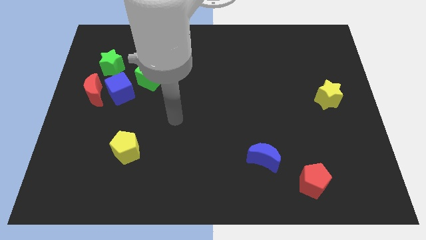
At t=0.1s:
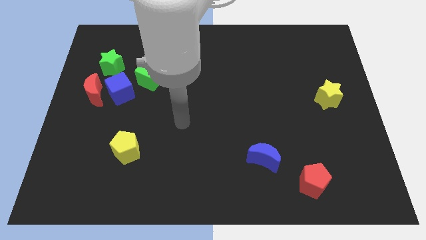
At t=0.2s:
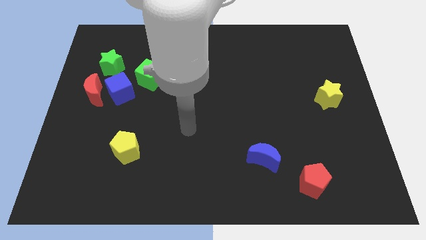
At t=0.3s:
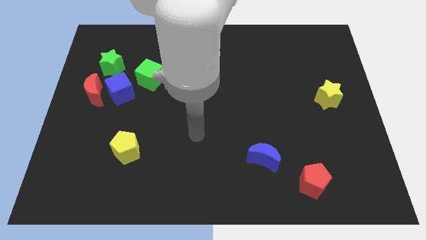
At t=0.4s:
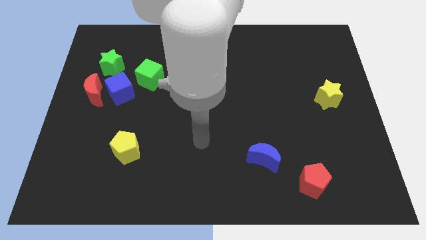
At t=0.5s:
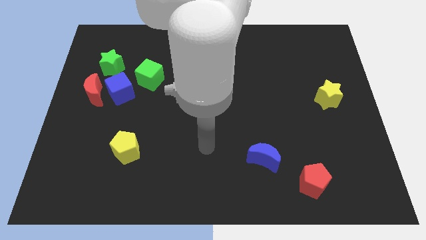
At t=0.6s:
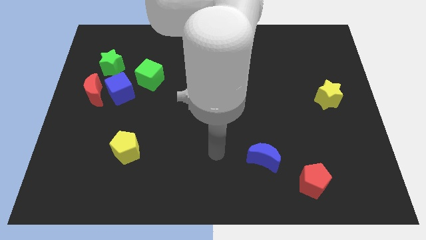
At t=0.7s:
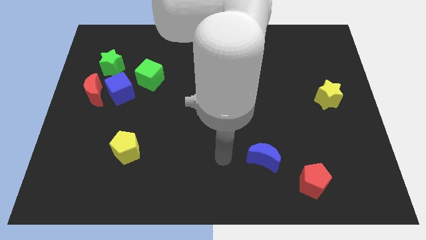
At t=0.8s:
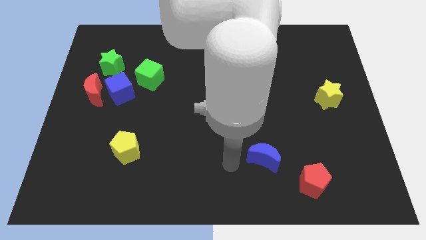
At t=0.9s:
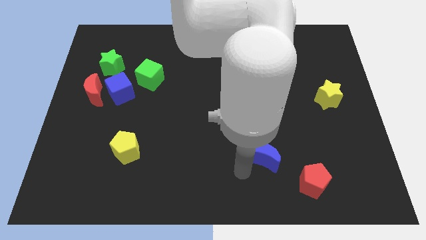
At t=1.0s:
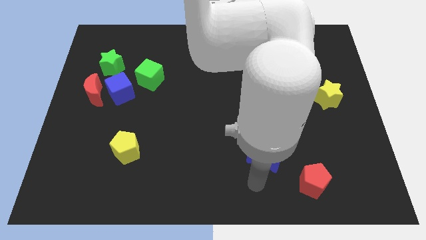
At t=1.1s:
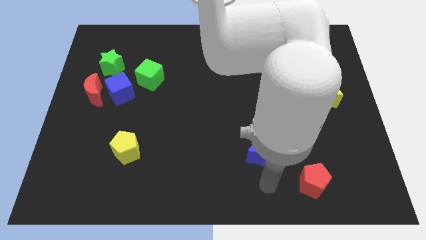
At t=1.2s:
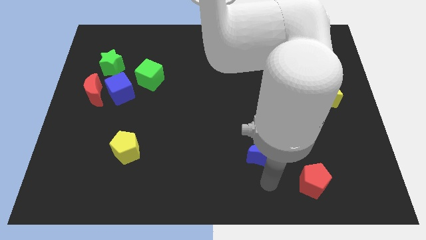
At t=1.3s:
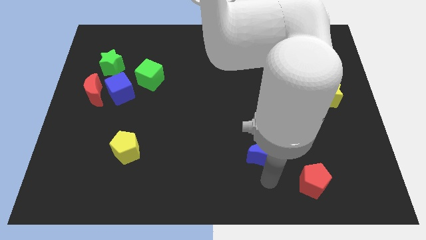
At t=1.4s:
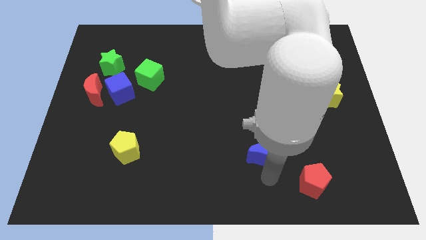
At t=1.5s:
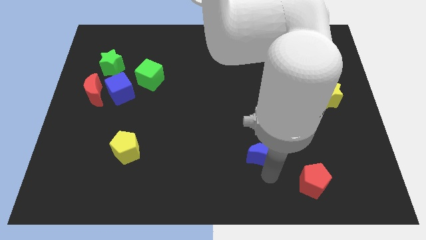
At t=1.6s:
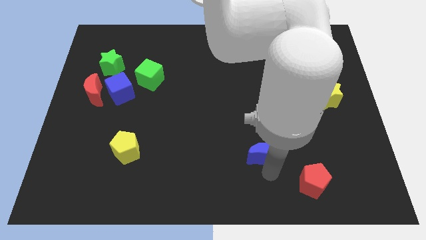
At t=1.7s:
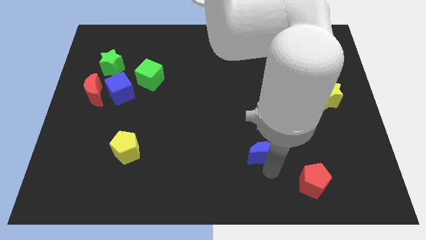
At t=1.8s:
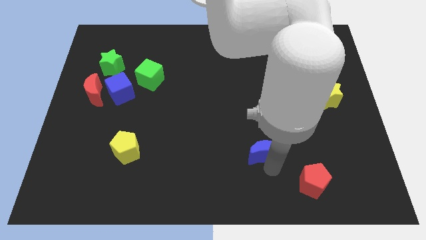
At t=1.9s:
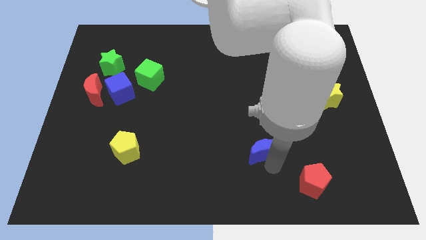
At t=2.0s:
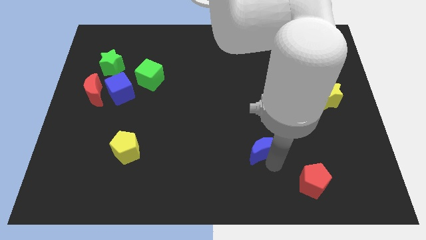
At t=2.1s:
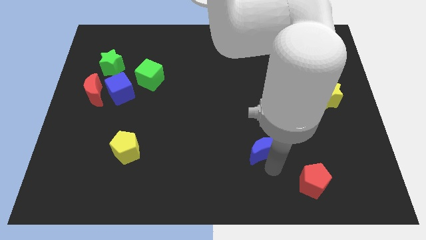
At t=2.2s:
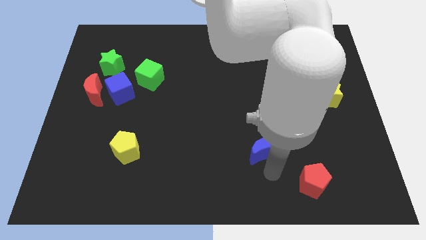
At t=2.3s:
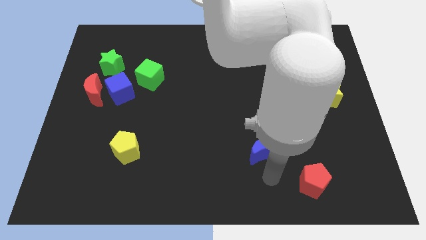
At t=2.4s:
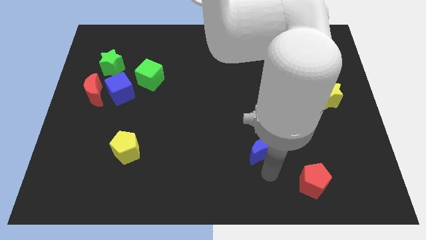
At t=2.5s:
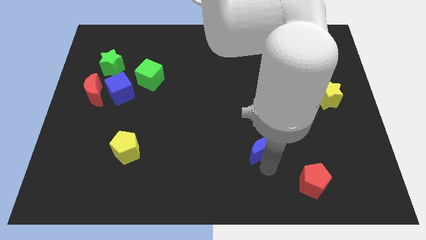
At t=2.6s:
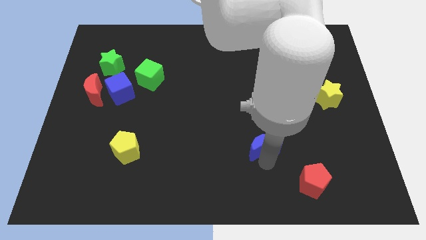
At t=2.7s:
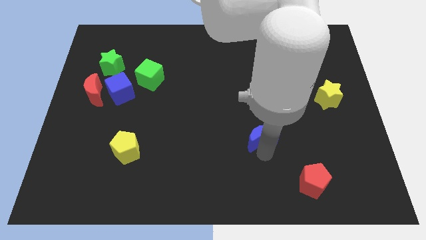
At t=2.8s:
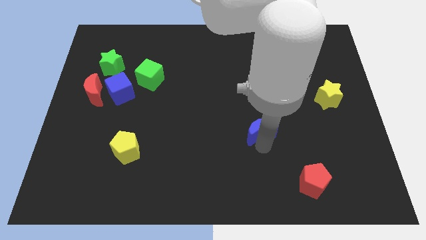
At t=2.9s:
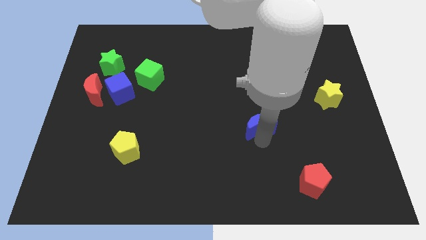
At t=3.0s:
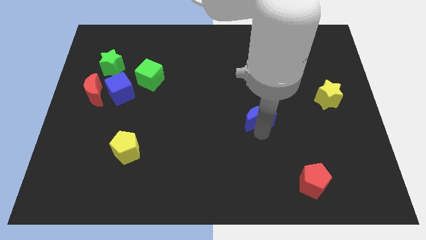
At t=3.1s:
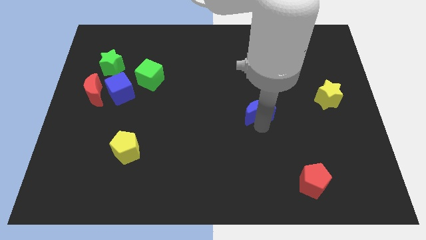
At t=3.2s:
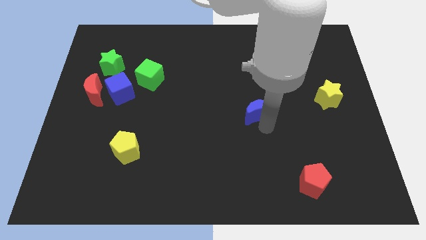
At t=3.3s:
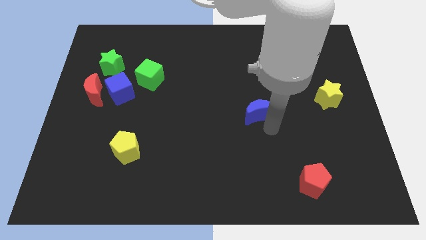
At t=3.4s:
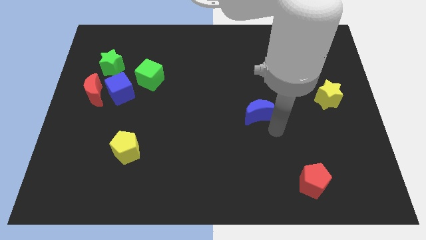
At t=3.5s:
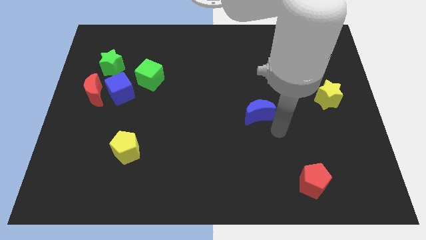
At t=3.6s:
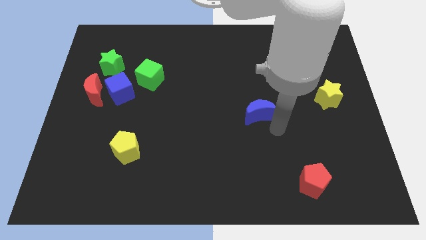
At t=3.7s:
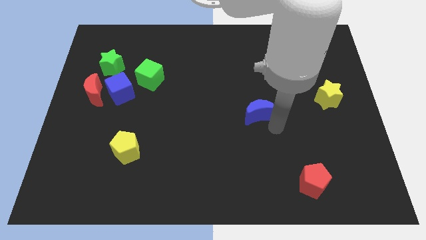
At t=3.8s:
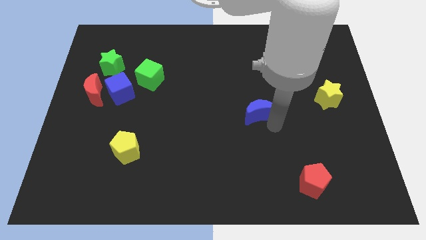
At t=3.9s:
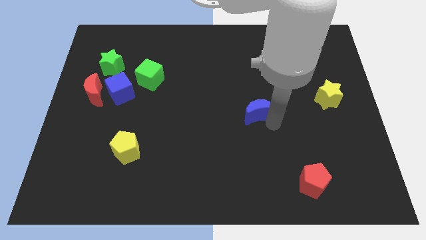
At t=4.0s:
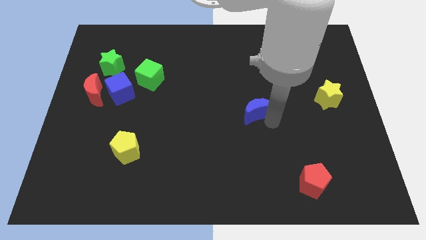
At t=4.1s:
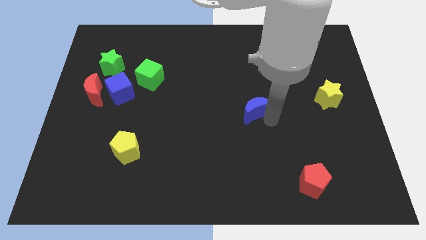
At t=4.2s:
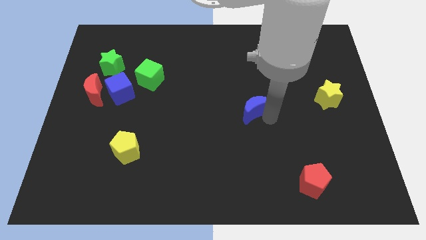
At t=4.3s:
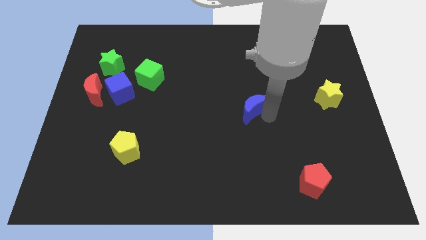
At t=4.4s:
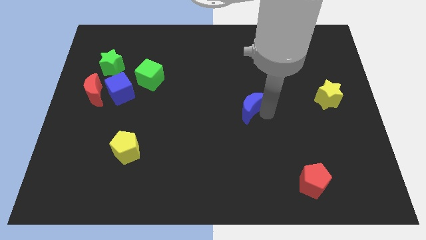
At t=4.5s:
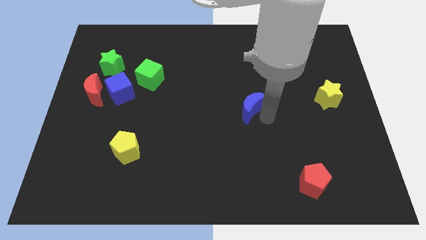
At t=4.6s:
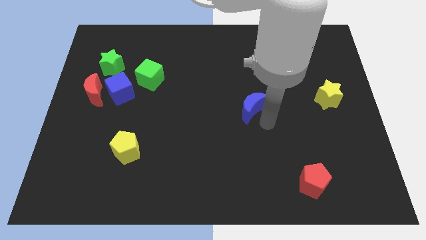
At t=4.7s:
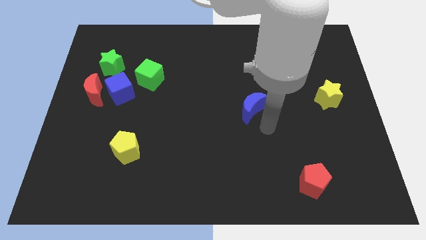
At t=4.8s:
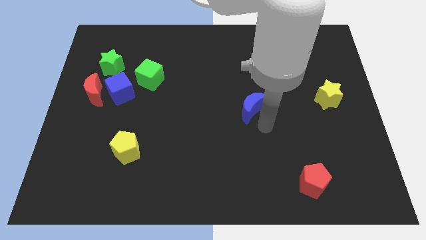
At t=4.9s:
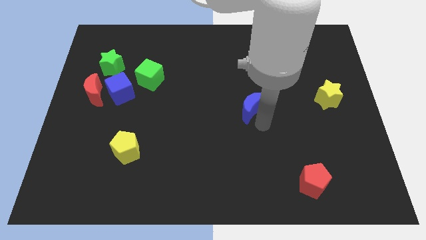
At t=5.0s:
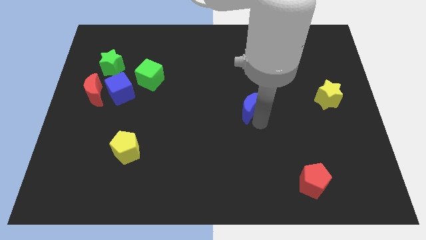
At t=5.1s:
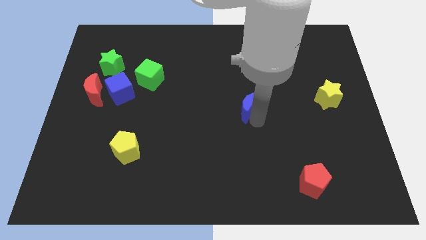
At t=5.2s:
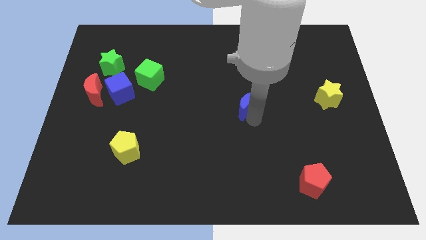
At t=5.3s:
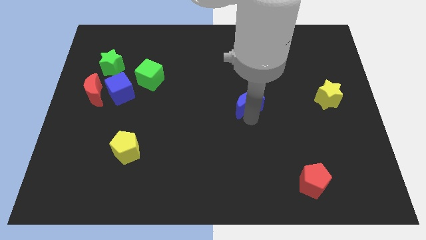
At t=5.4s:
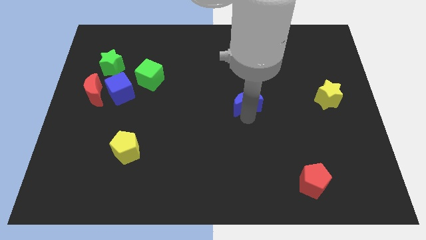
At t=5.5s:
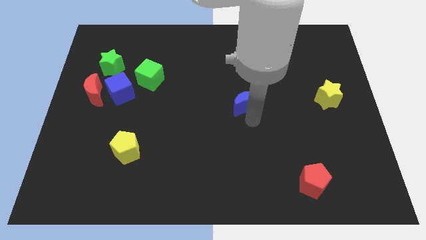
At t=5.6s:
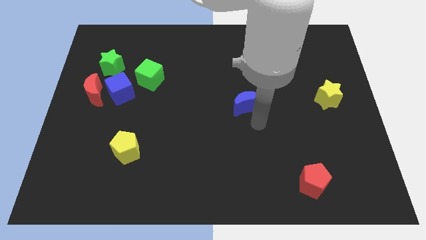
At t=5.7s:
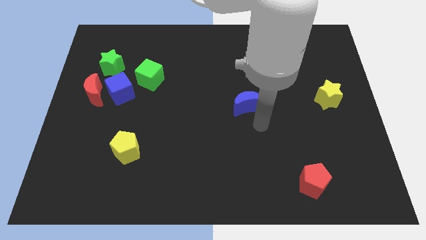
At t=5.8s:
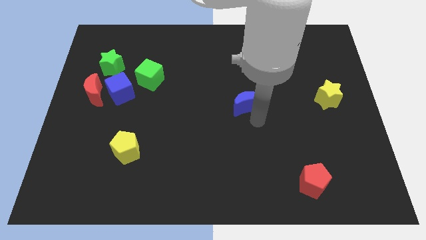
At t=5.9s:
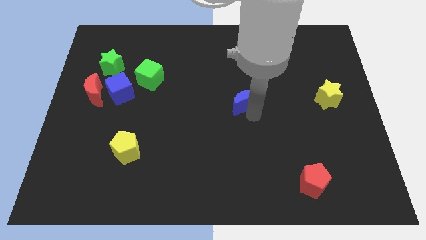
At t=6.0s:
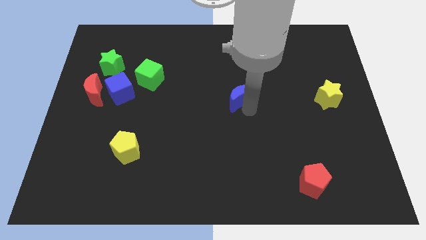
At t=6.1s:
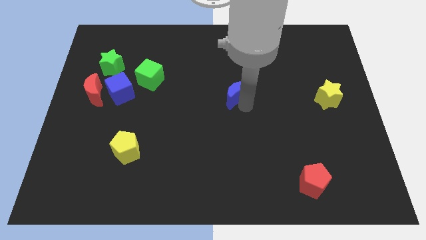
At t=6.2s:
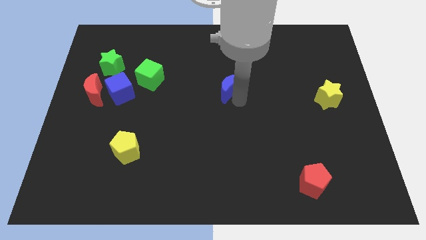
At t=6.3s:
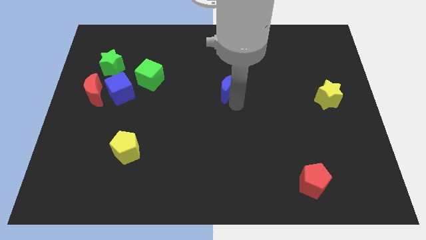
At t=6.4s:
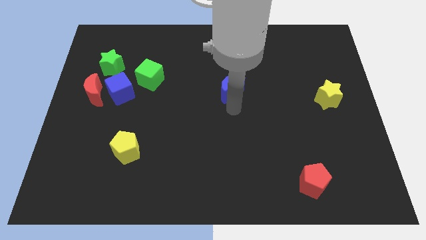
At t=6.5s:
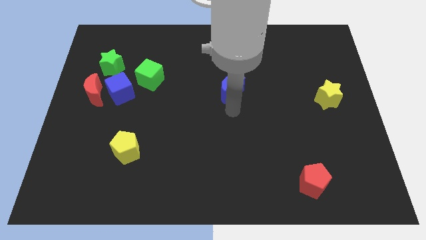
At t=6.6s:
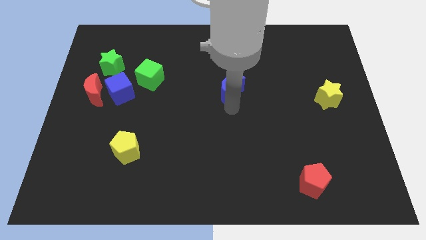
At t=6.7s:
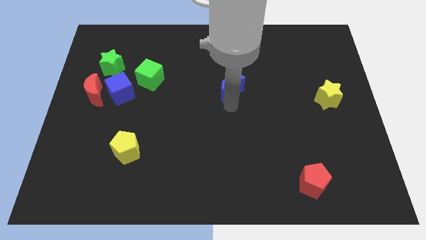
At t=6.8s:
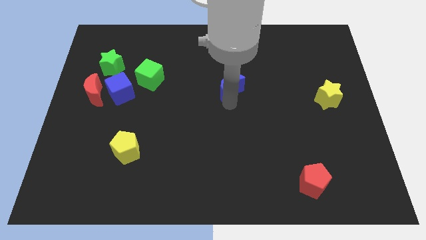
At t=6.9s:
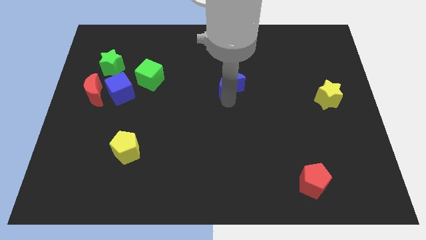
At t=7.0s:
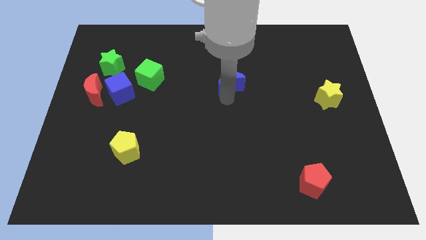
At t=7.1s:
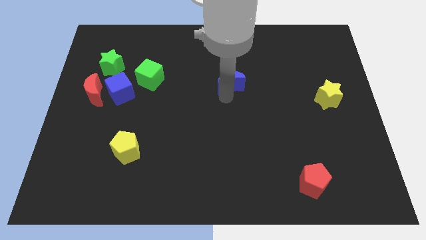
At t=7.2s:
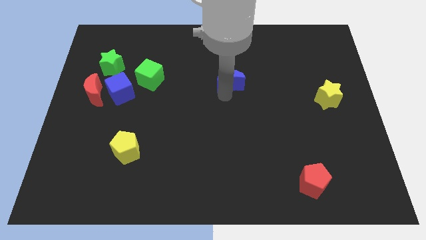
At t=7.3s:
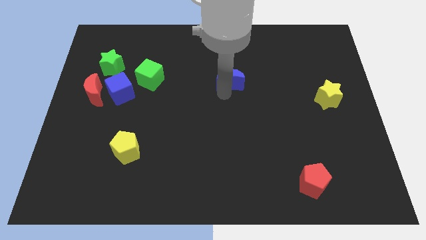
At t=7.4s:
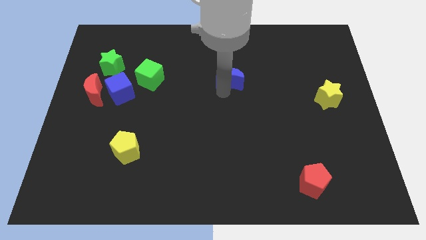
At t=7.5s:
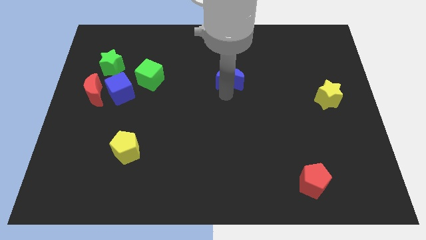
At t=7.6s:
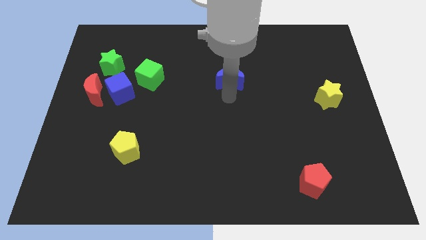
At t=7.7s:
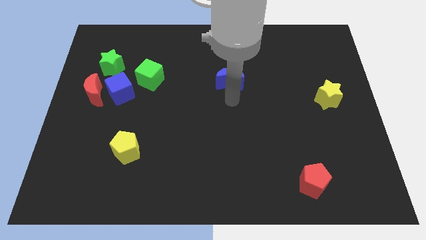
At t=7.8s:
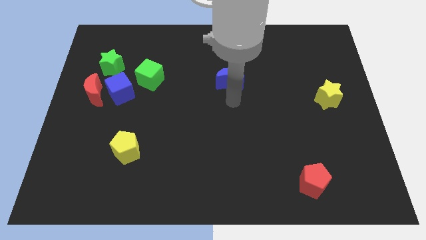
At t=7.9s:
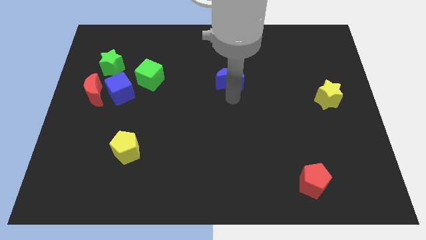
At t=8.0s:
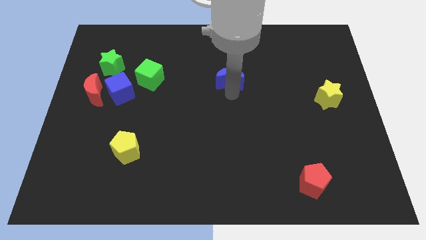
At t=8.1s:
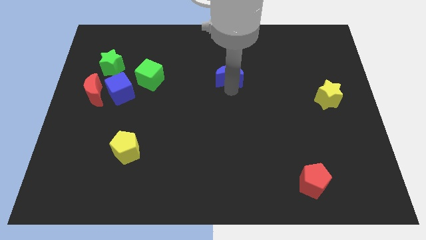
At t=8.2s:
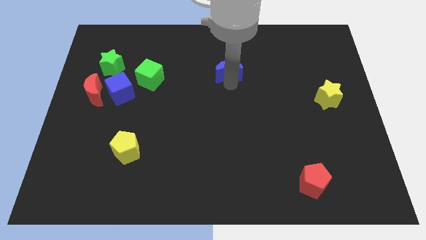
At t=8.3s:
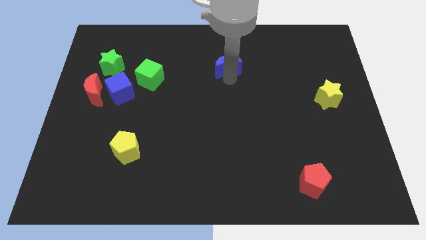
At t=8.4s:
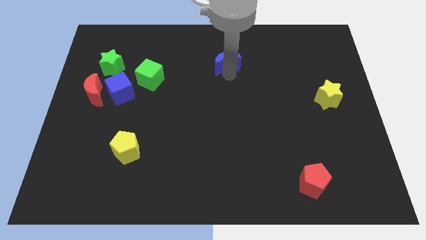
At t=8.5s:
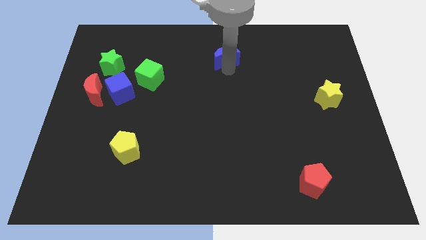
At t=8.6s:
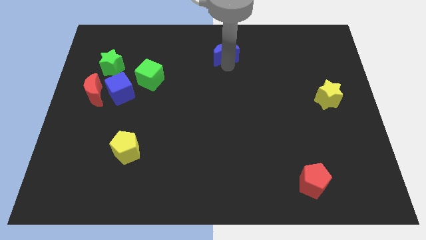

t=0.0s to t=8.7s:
push the blue moon to the towards your base
